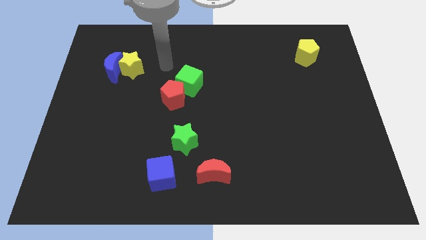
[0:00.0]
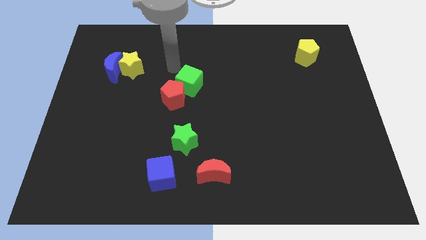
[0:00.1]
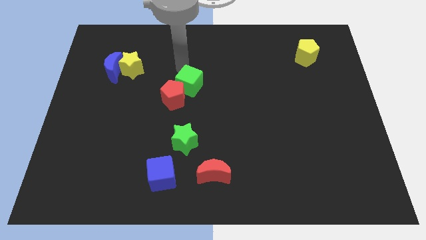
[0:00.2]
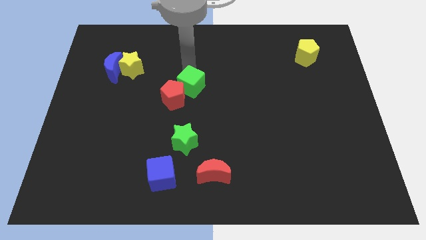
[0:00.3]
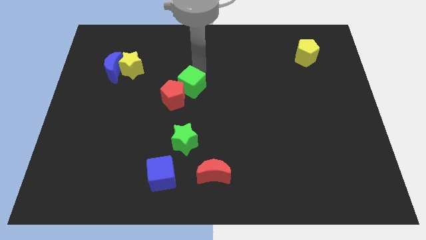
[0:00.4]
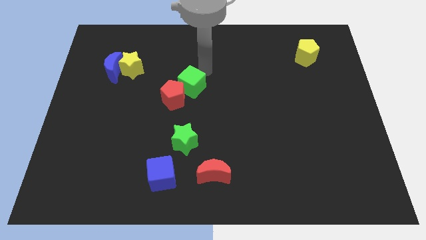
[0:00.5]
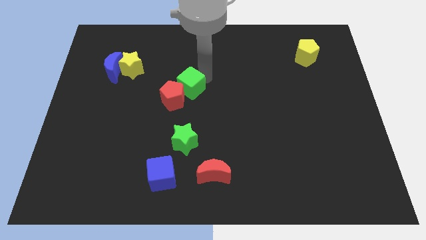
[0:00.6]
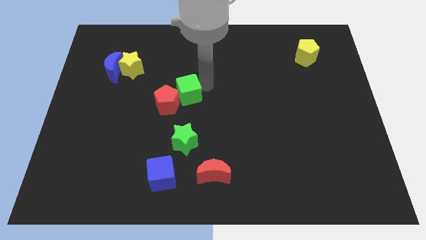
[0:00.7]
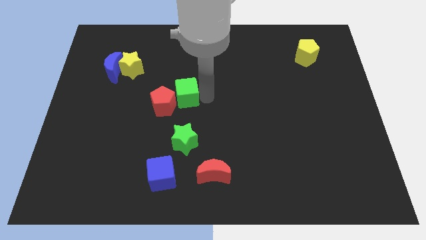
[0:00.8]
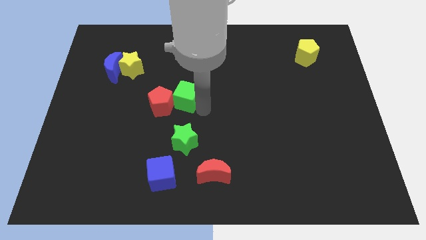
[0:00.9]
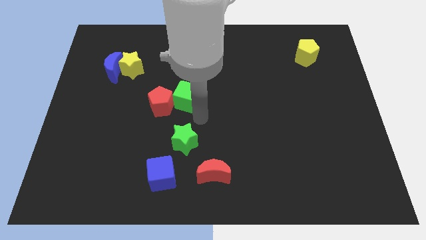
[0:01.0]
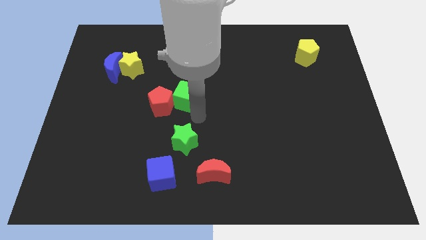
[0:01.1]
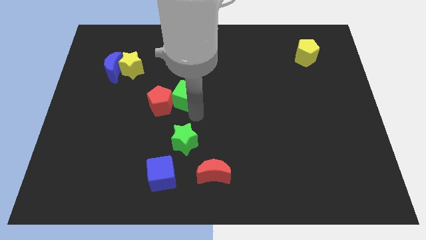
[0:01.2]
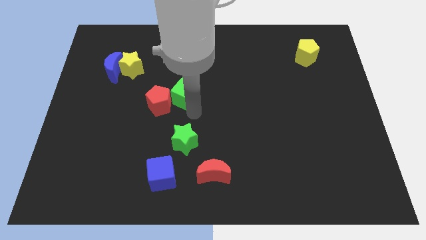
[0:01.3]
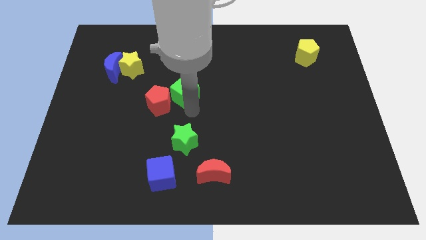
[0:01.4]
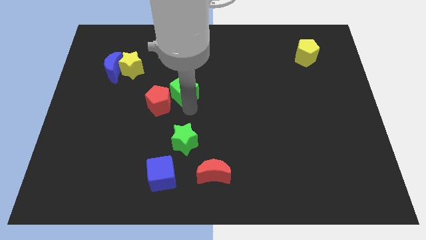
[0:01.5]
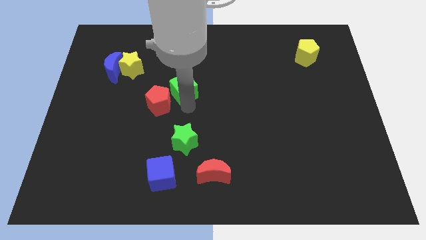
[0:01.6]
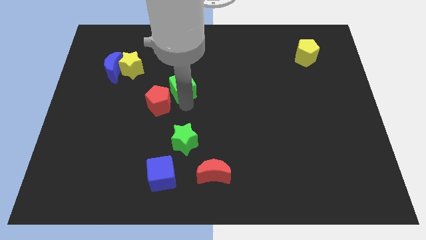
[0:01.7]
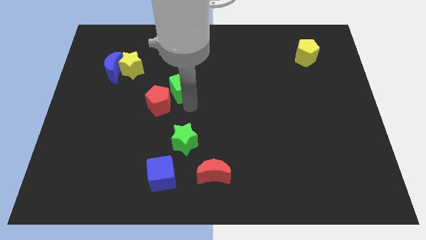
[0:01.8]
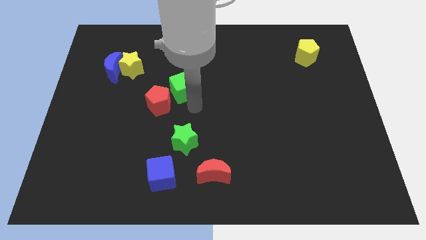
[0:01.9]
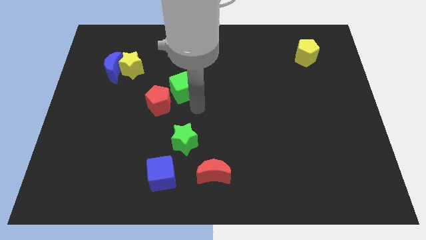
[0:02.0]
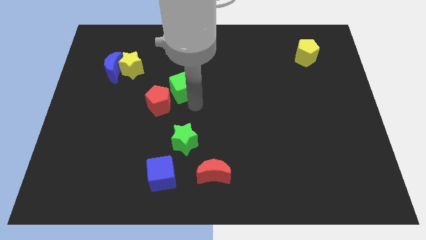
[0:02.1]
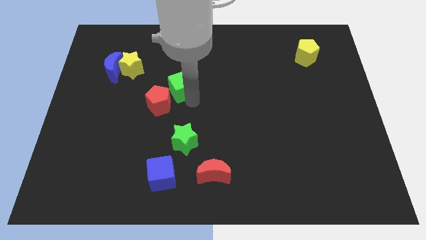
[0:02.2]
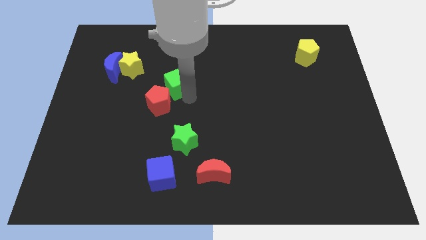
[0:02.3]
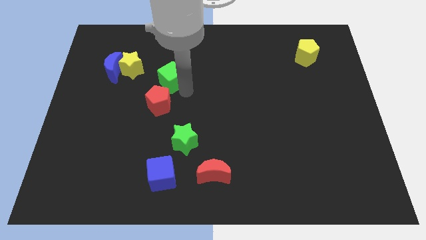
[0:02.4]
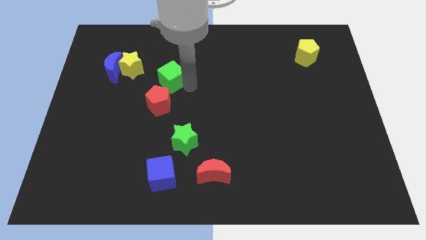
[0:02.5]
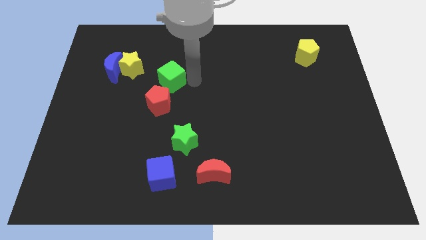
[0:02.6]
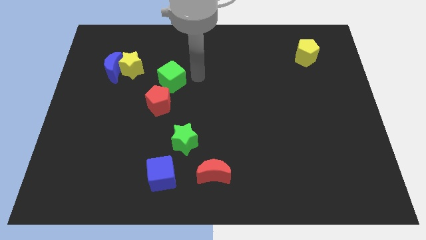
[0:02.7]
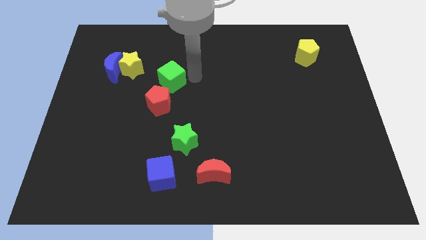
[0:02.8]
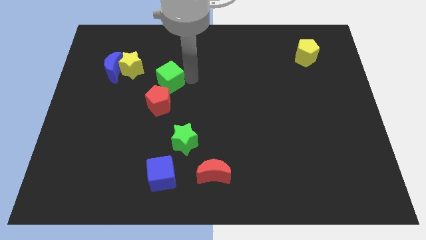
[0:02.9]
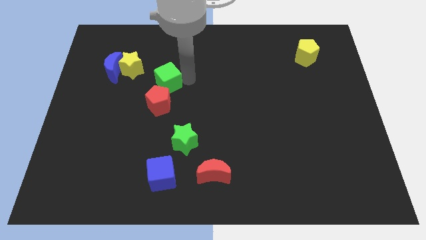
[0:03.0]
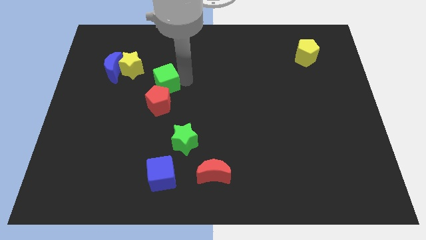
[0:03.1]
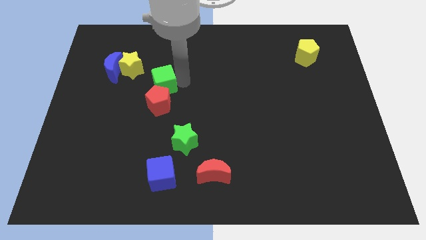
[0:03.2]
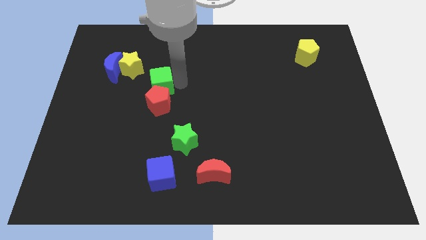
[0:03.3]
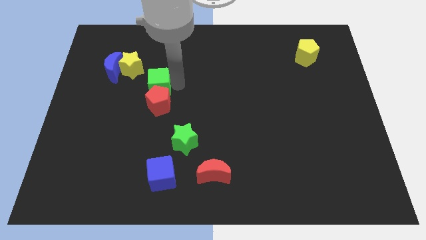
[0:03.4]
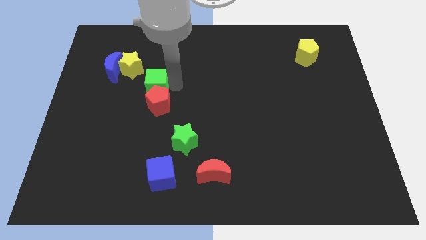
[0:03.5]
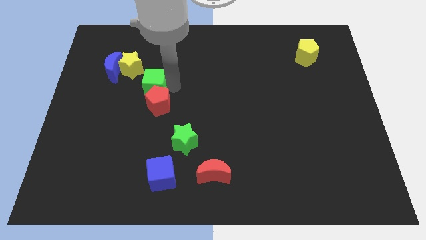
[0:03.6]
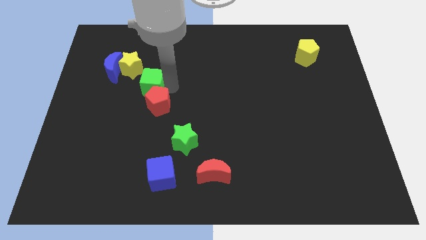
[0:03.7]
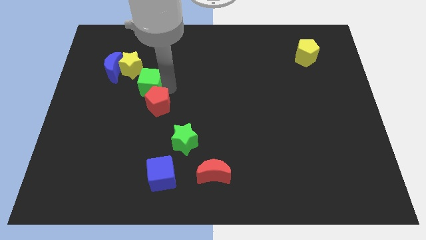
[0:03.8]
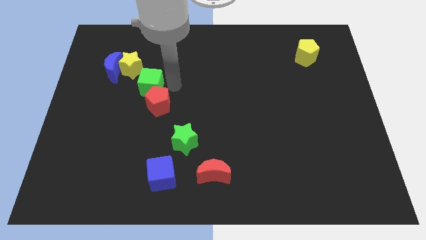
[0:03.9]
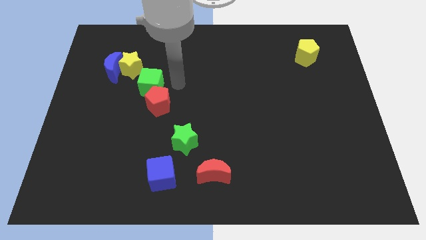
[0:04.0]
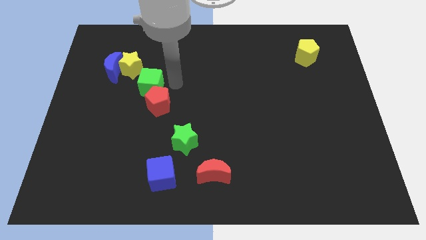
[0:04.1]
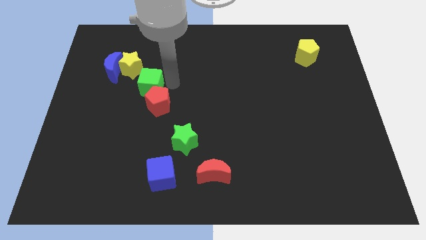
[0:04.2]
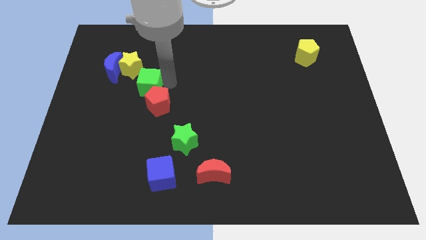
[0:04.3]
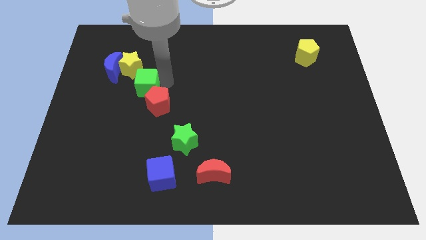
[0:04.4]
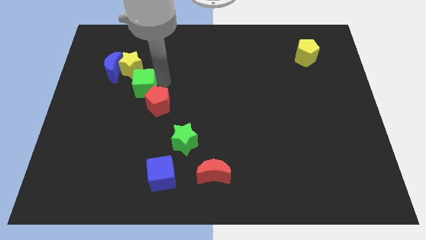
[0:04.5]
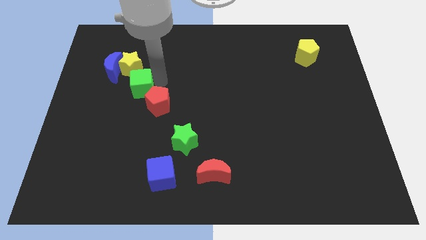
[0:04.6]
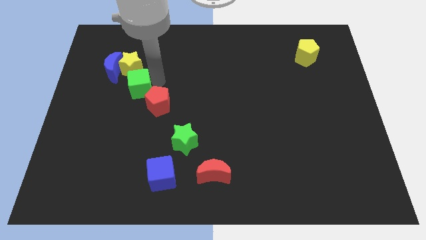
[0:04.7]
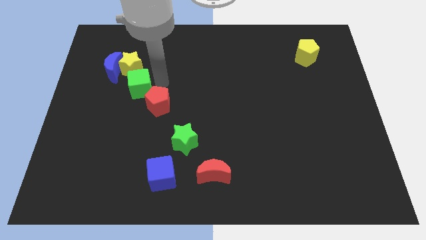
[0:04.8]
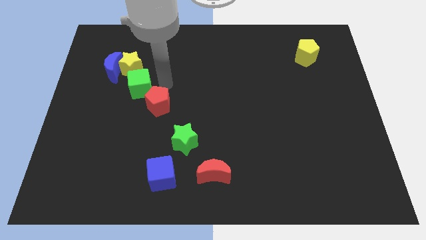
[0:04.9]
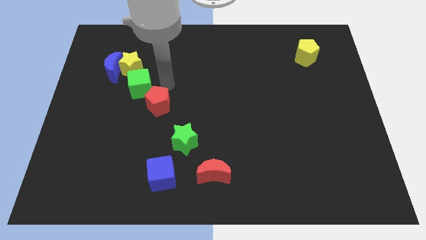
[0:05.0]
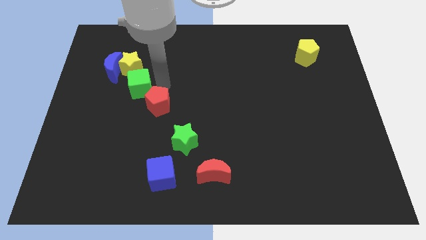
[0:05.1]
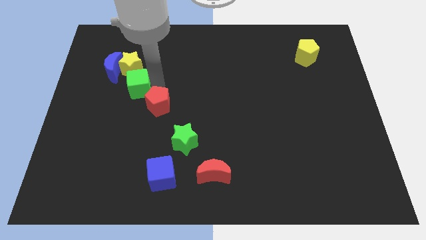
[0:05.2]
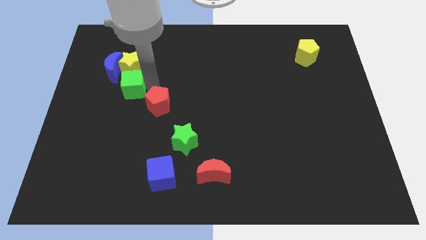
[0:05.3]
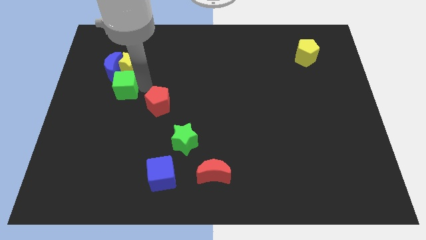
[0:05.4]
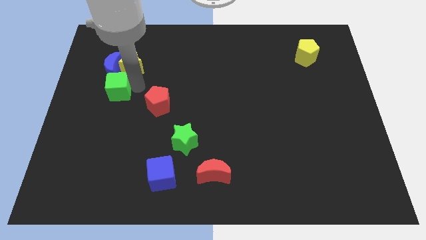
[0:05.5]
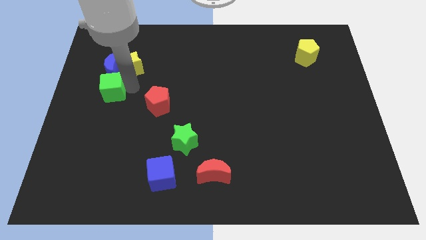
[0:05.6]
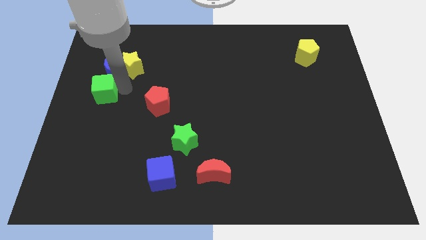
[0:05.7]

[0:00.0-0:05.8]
move the green cube to the center left

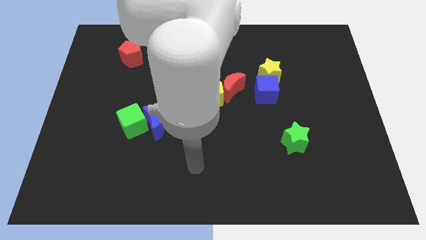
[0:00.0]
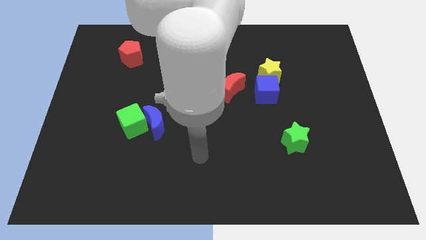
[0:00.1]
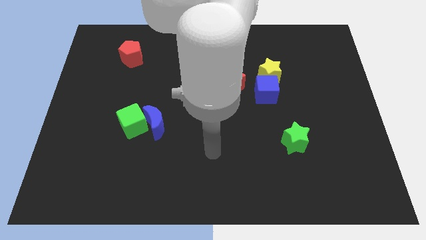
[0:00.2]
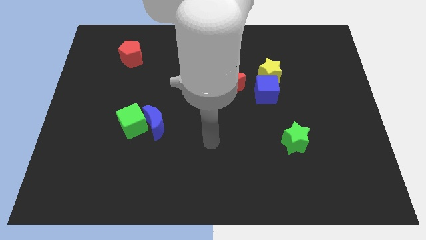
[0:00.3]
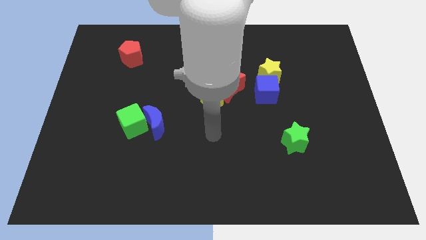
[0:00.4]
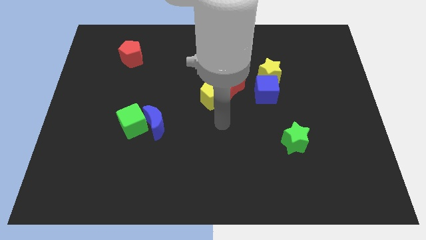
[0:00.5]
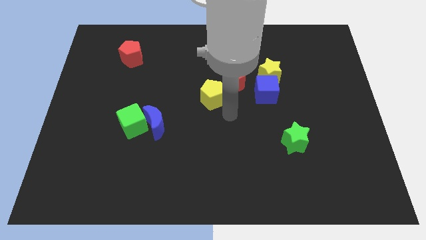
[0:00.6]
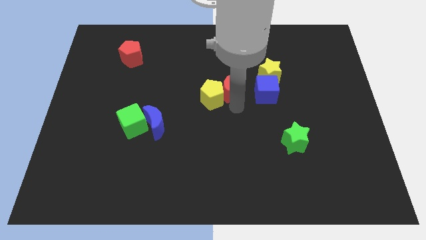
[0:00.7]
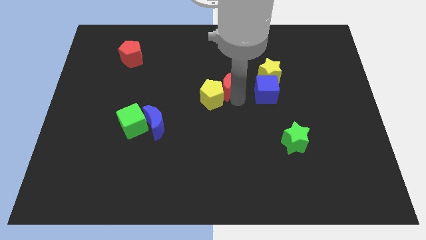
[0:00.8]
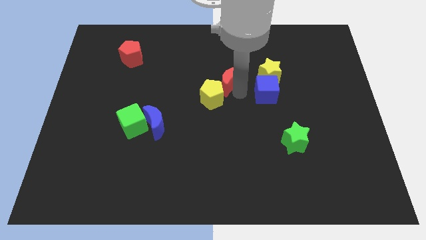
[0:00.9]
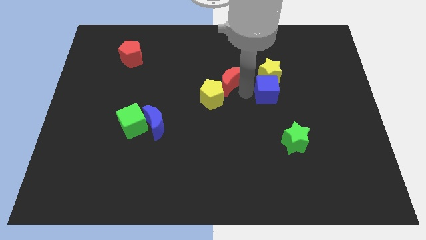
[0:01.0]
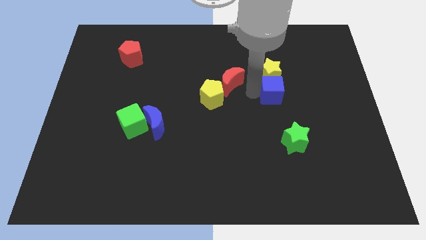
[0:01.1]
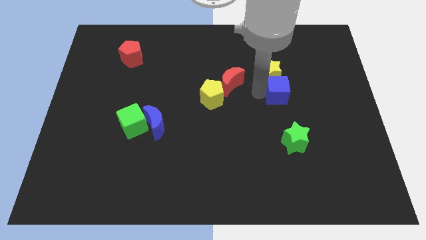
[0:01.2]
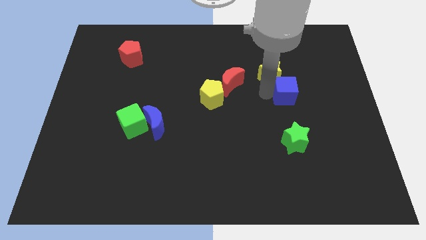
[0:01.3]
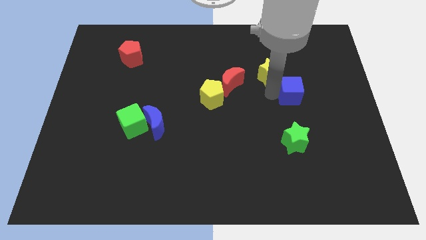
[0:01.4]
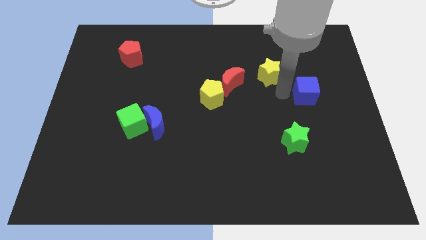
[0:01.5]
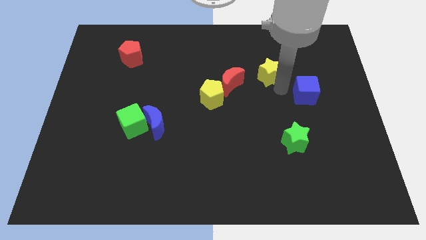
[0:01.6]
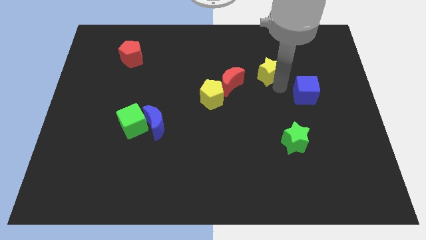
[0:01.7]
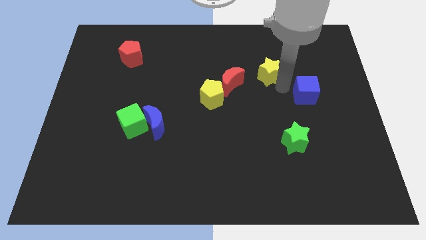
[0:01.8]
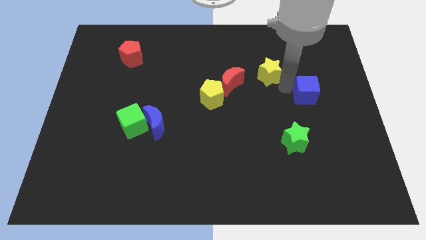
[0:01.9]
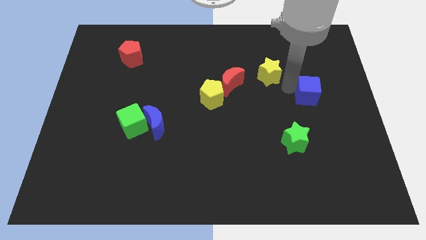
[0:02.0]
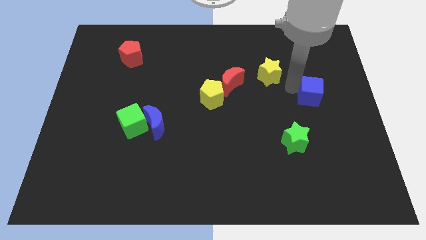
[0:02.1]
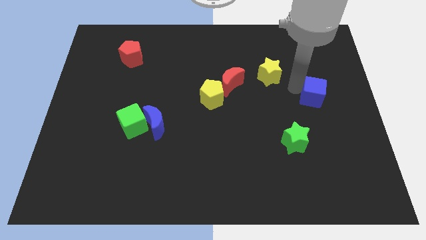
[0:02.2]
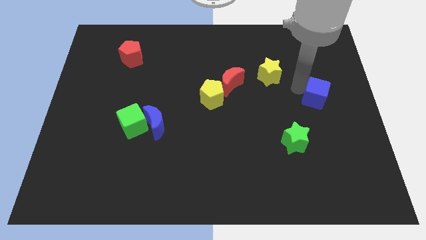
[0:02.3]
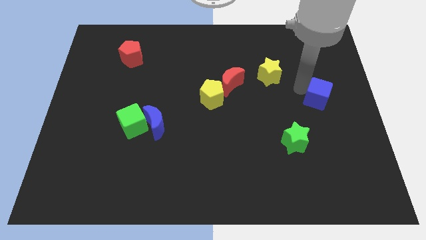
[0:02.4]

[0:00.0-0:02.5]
slide the blue cube to the center right
